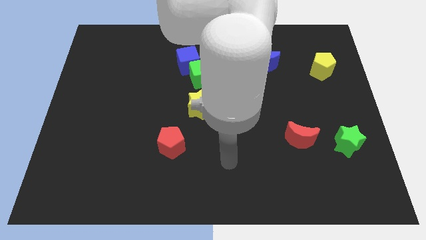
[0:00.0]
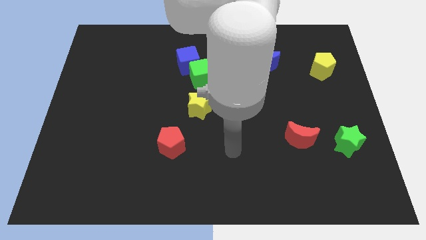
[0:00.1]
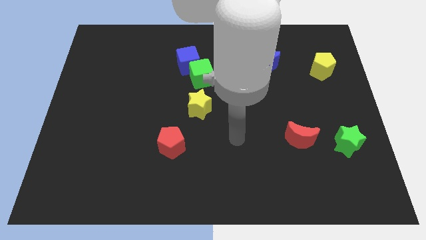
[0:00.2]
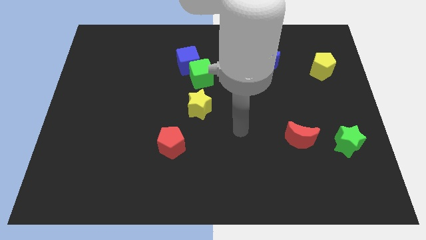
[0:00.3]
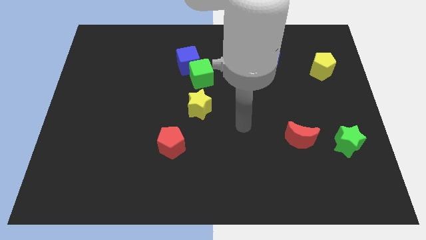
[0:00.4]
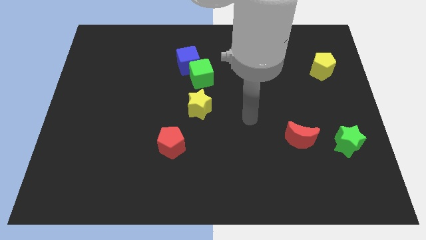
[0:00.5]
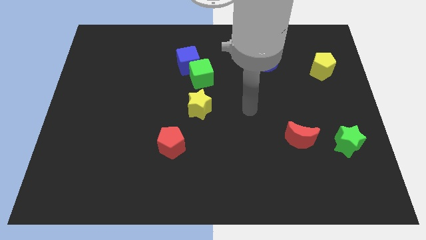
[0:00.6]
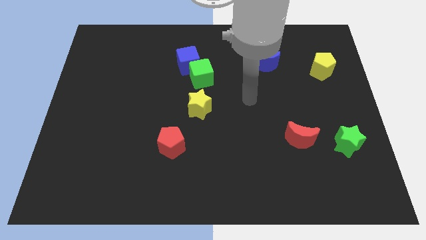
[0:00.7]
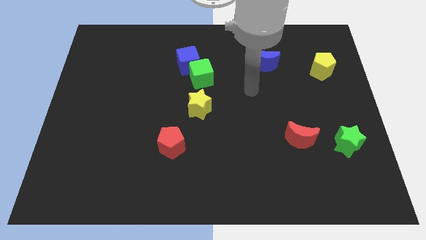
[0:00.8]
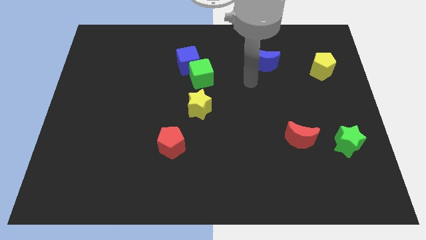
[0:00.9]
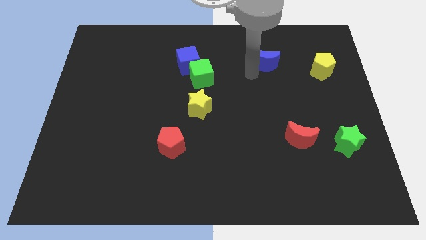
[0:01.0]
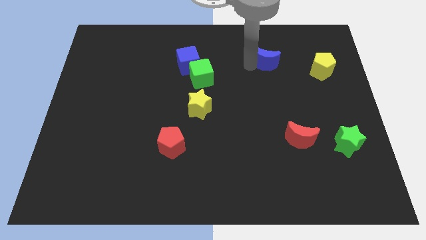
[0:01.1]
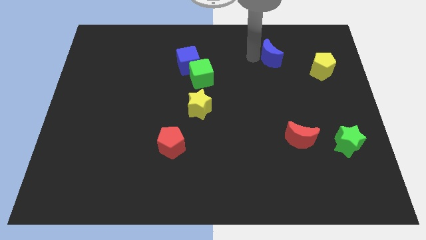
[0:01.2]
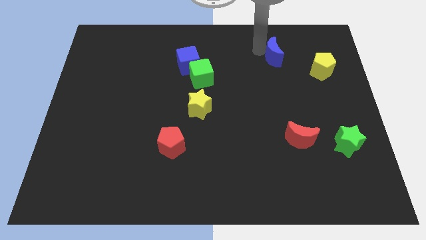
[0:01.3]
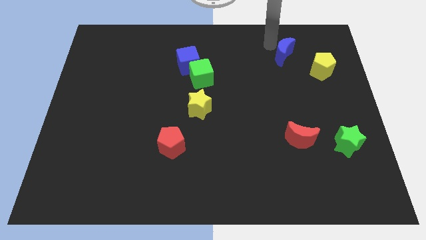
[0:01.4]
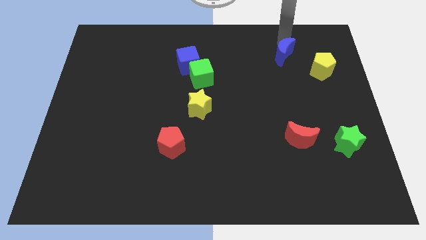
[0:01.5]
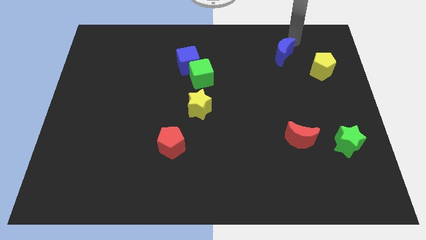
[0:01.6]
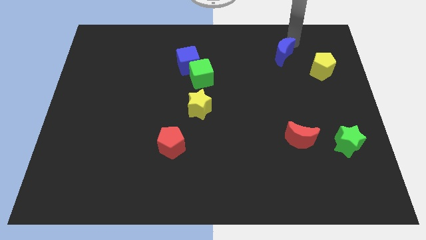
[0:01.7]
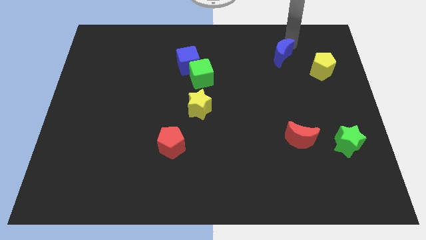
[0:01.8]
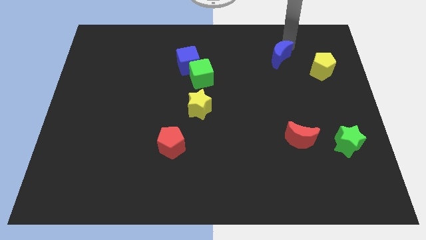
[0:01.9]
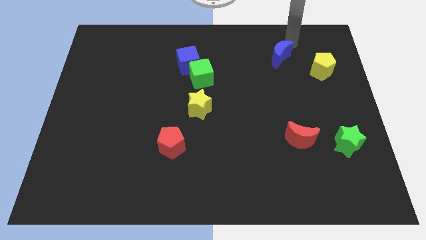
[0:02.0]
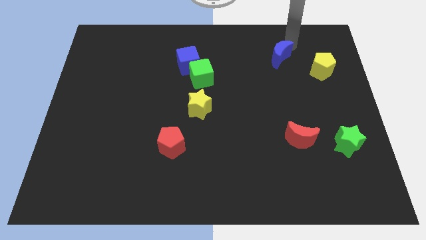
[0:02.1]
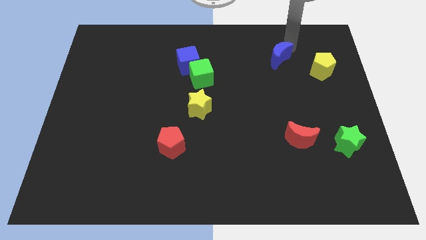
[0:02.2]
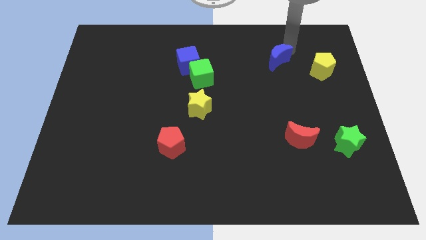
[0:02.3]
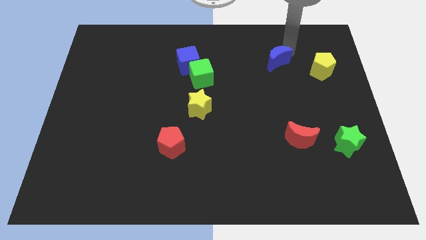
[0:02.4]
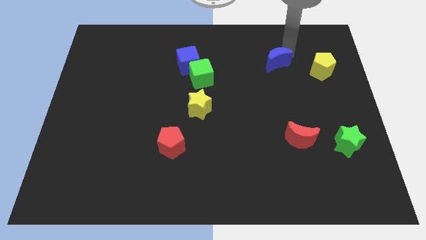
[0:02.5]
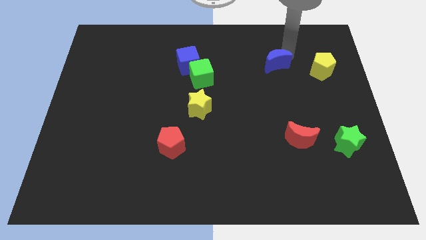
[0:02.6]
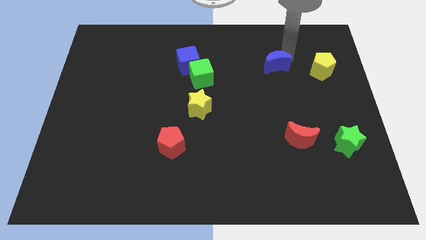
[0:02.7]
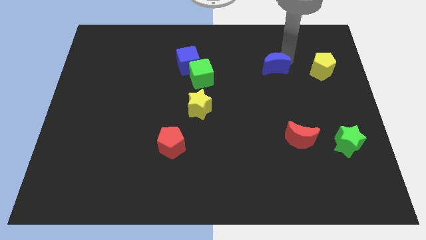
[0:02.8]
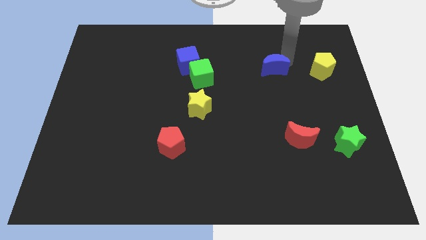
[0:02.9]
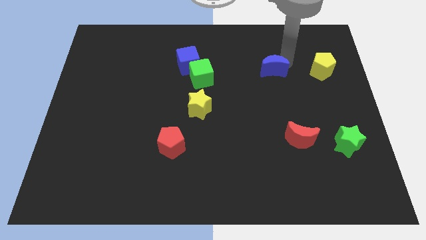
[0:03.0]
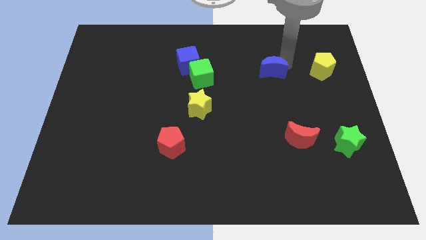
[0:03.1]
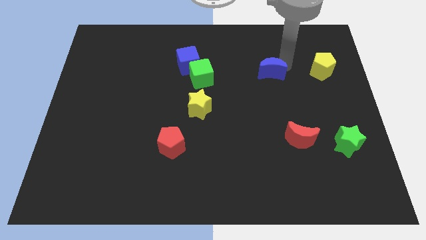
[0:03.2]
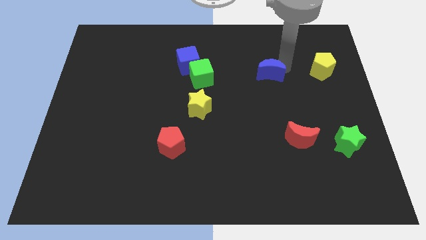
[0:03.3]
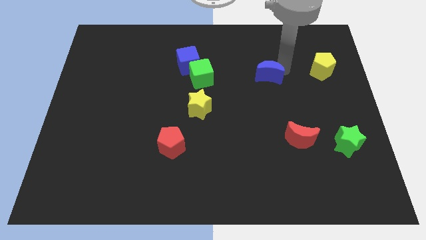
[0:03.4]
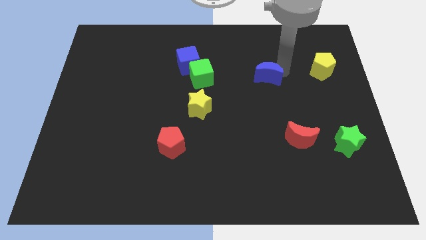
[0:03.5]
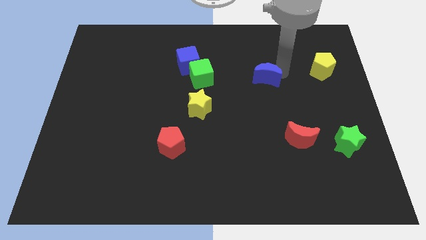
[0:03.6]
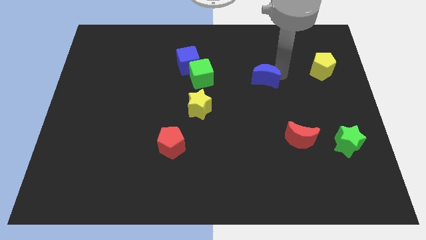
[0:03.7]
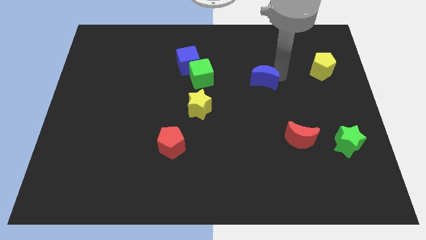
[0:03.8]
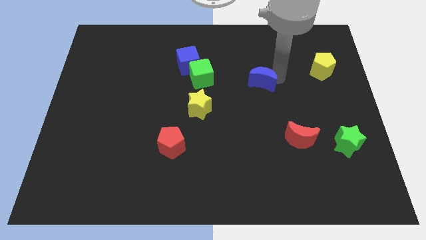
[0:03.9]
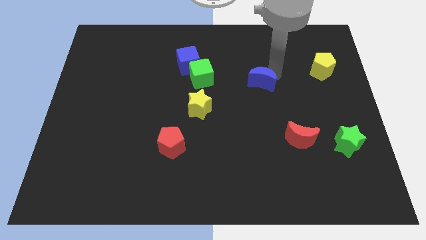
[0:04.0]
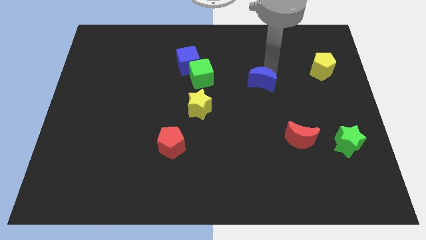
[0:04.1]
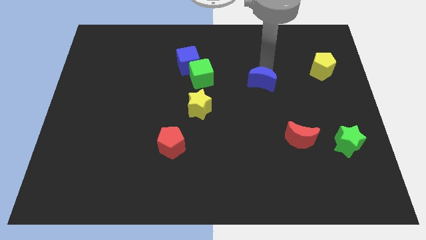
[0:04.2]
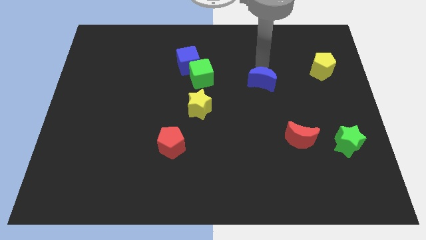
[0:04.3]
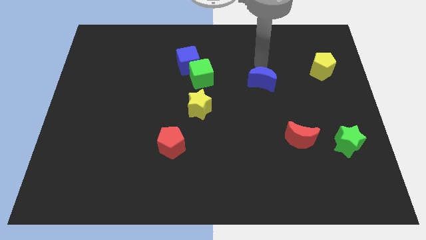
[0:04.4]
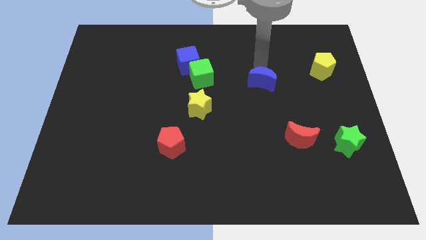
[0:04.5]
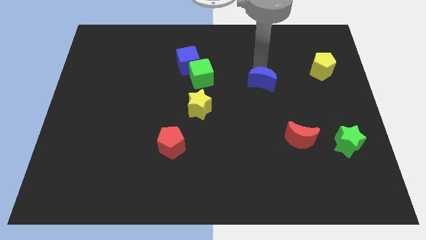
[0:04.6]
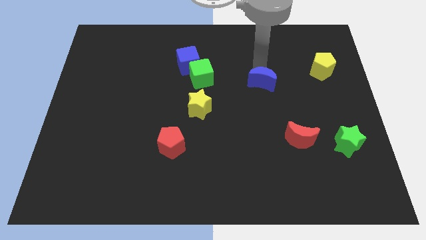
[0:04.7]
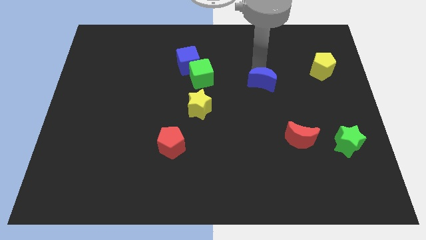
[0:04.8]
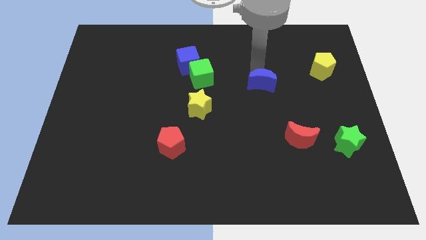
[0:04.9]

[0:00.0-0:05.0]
slide the blue moon slightly down

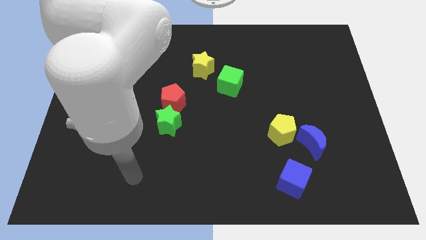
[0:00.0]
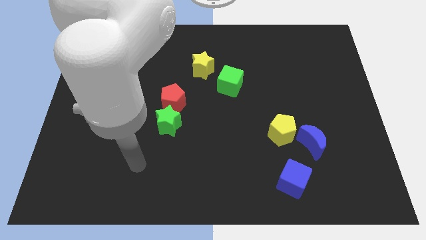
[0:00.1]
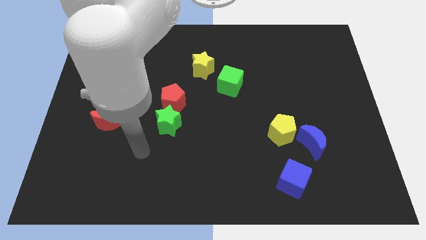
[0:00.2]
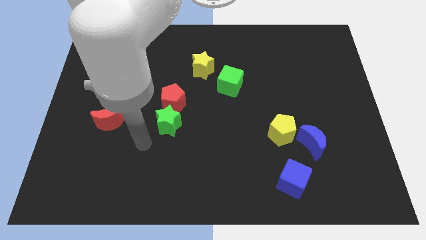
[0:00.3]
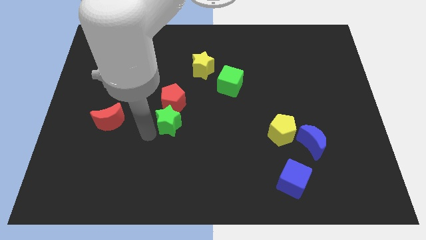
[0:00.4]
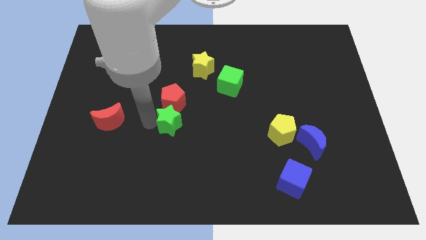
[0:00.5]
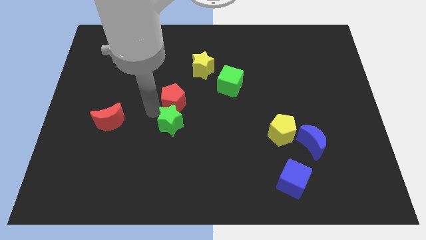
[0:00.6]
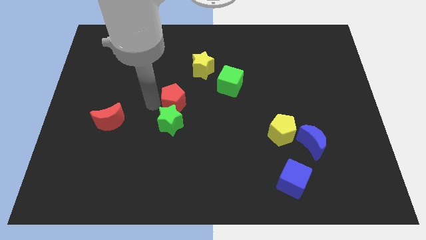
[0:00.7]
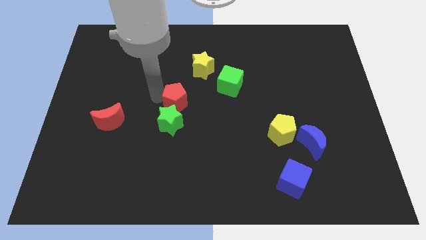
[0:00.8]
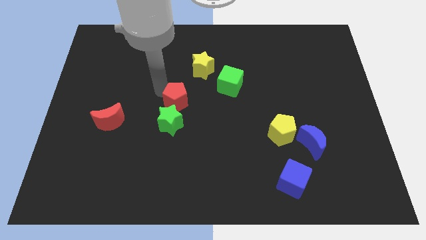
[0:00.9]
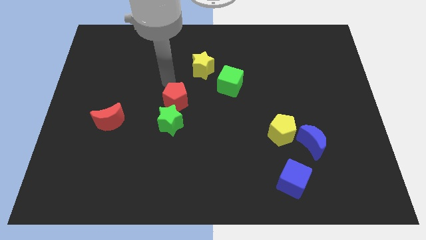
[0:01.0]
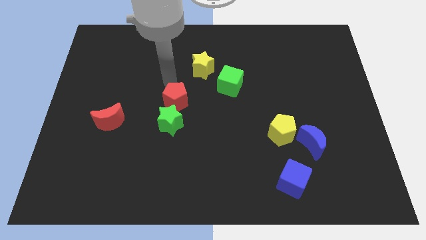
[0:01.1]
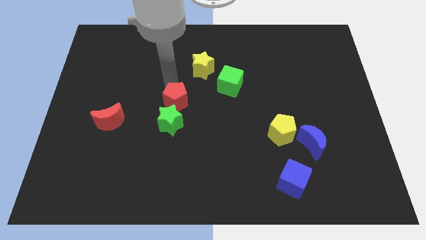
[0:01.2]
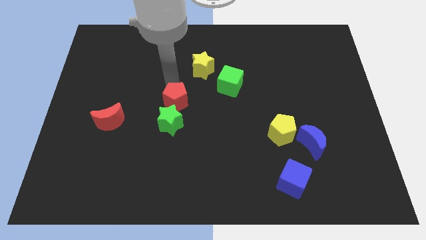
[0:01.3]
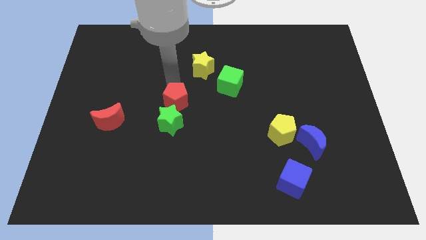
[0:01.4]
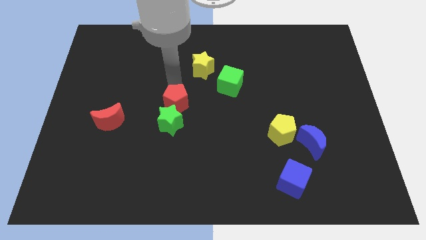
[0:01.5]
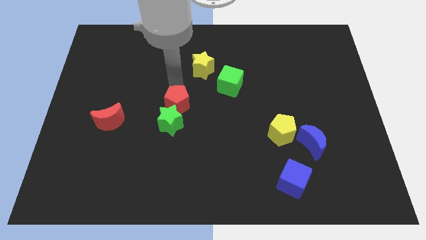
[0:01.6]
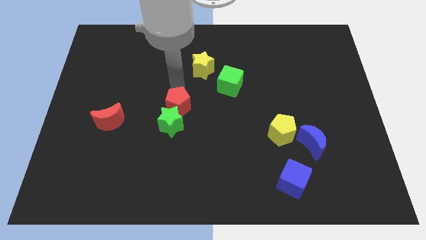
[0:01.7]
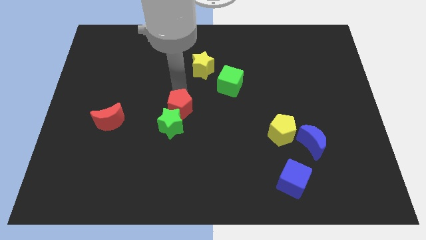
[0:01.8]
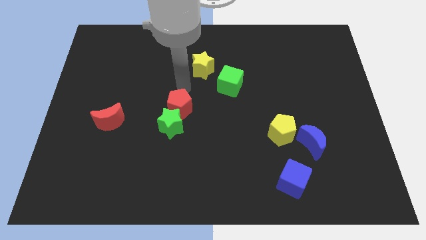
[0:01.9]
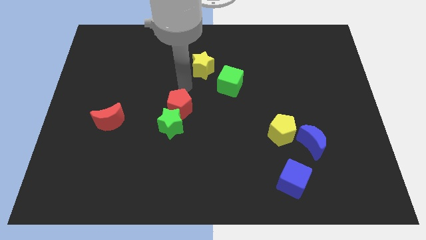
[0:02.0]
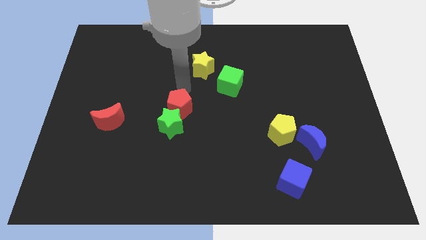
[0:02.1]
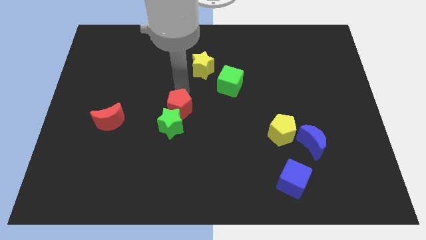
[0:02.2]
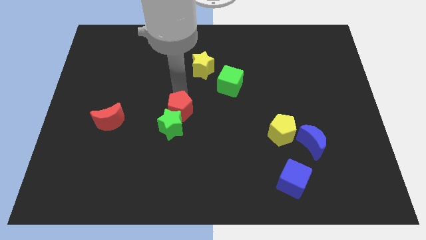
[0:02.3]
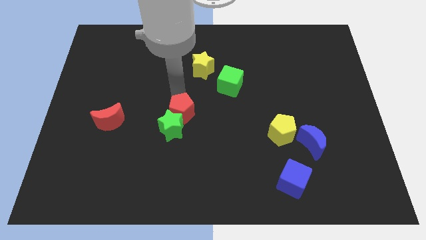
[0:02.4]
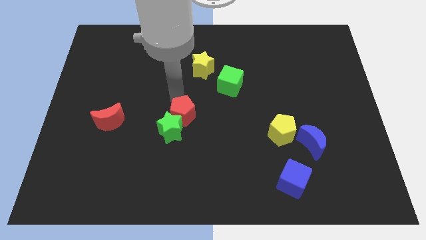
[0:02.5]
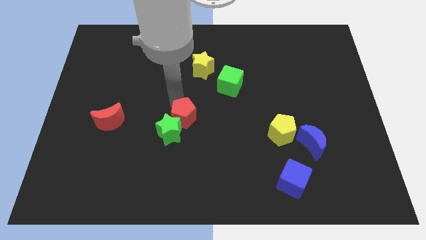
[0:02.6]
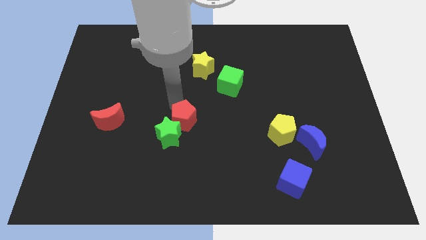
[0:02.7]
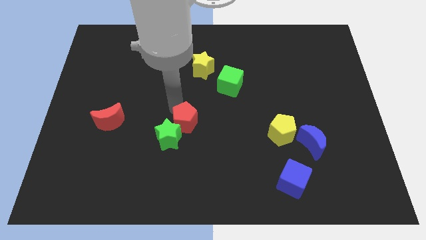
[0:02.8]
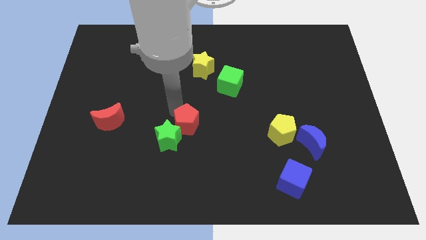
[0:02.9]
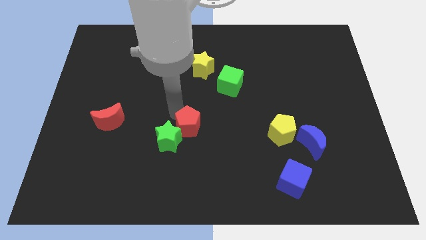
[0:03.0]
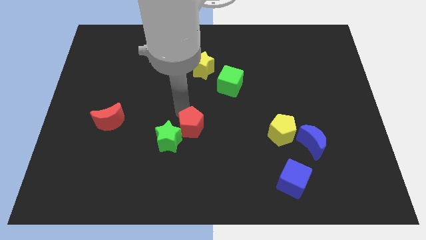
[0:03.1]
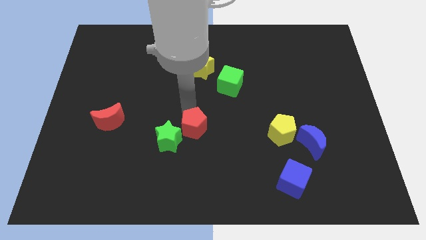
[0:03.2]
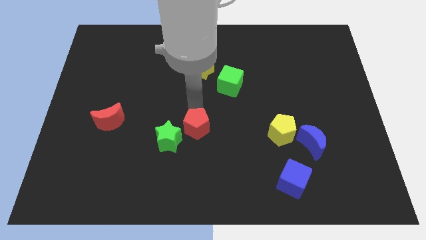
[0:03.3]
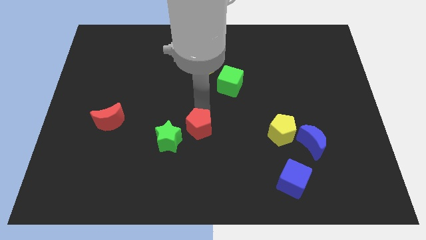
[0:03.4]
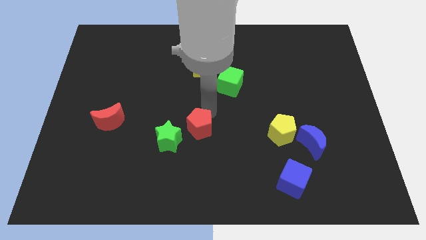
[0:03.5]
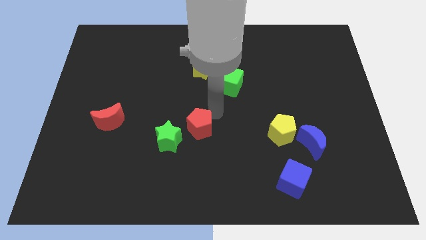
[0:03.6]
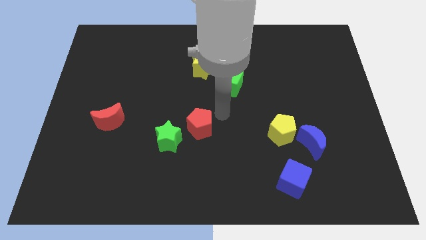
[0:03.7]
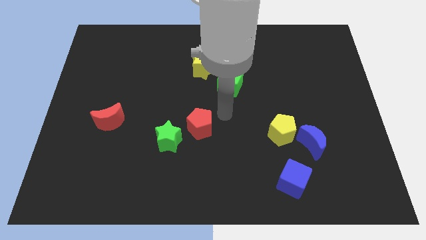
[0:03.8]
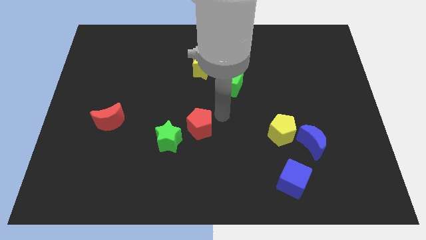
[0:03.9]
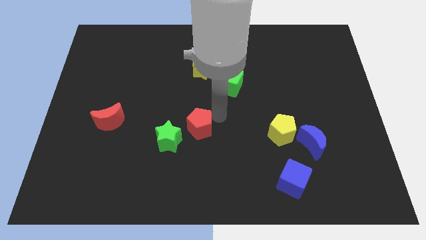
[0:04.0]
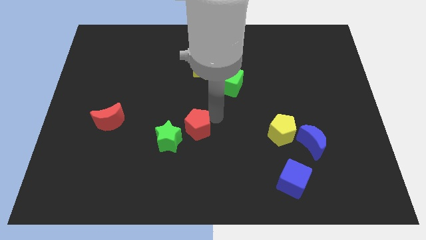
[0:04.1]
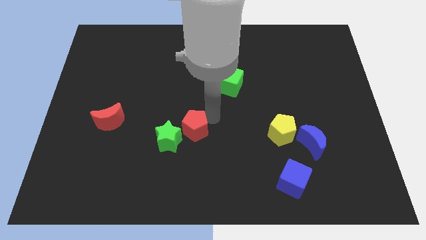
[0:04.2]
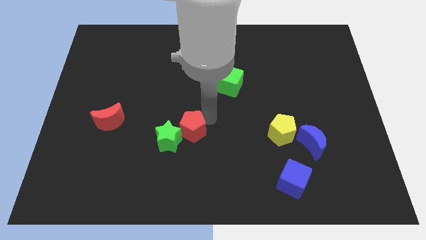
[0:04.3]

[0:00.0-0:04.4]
slide the red pentagon downwards a bit
